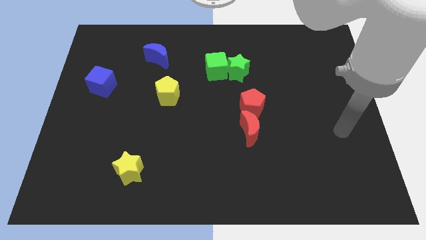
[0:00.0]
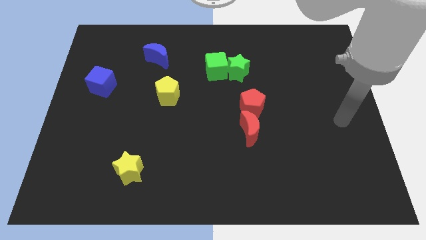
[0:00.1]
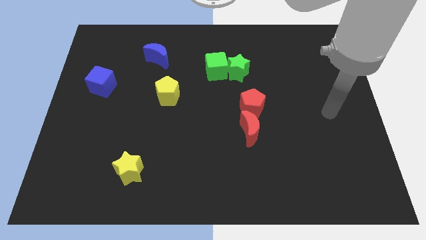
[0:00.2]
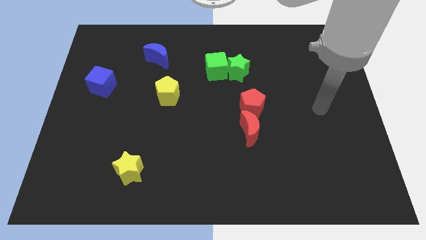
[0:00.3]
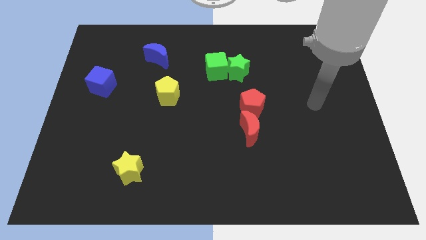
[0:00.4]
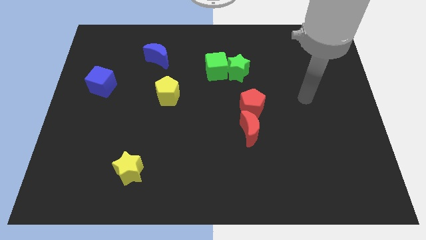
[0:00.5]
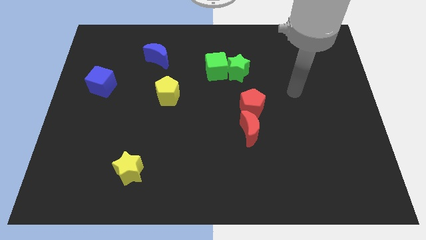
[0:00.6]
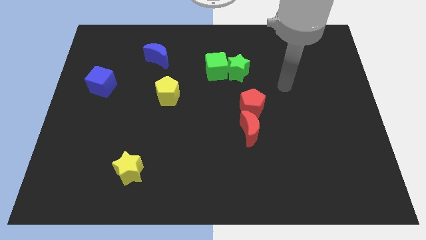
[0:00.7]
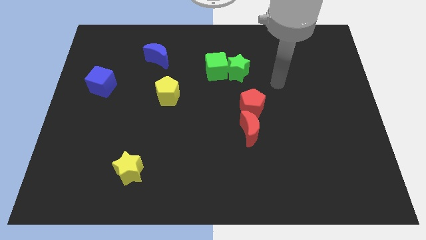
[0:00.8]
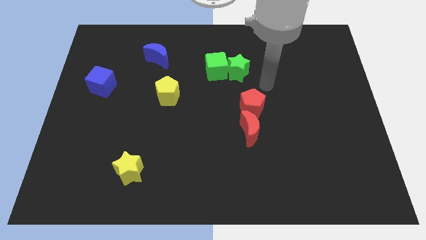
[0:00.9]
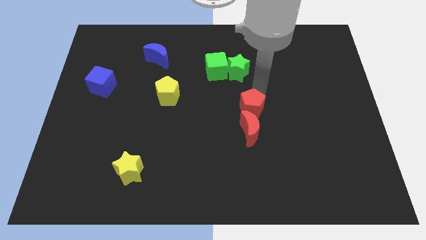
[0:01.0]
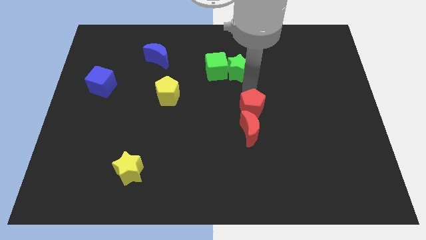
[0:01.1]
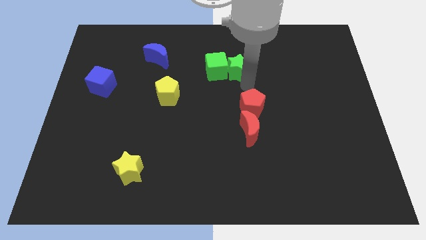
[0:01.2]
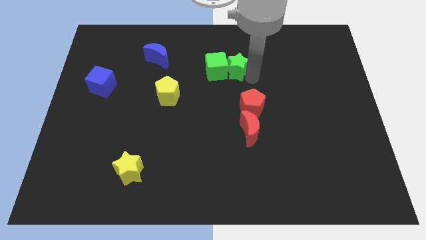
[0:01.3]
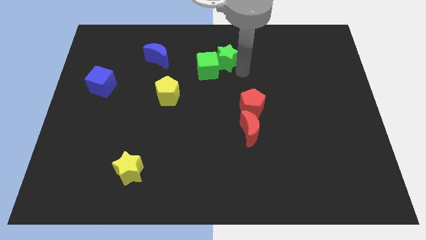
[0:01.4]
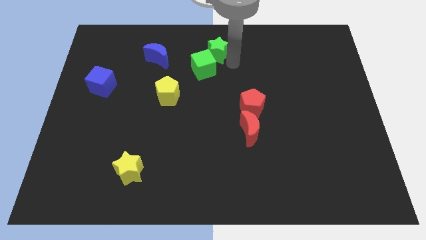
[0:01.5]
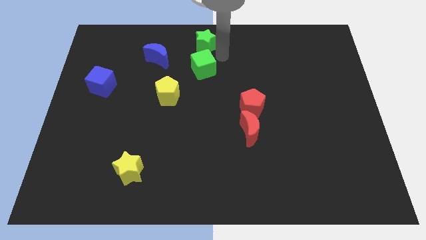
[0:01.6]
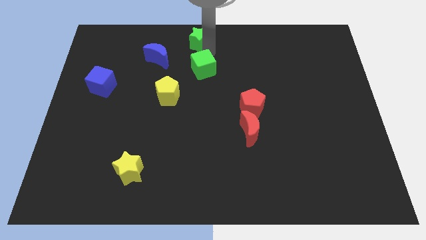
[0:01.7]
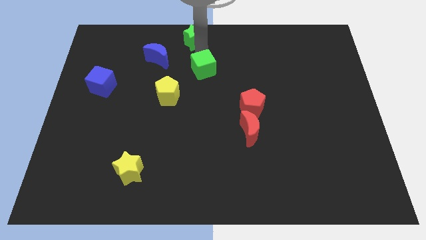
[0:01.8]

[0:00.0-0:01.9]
separate the green cube from the green star

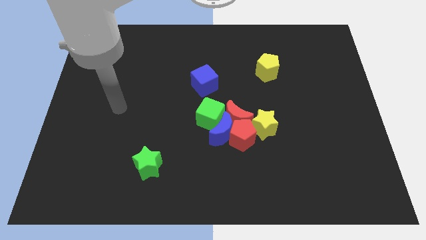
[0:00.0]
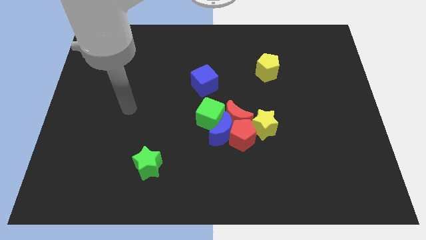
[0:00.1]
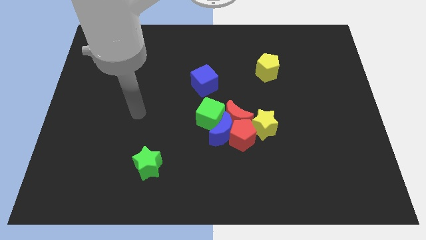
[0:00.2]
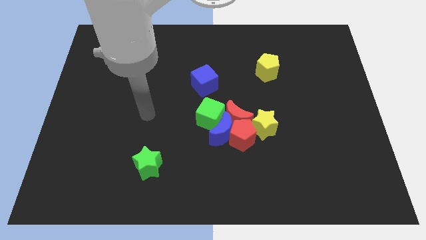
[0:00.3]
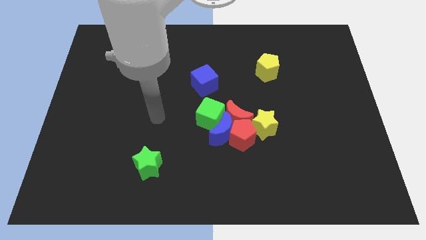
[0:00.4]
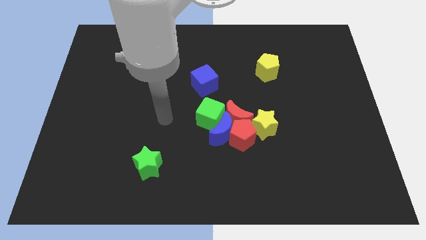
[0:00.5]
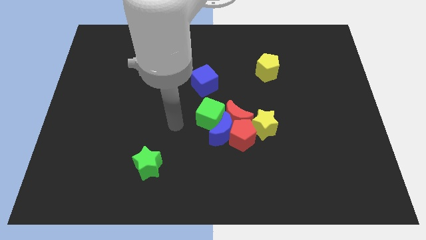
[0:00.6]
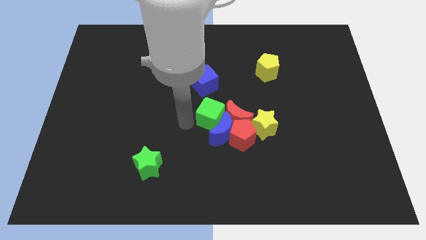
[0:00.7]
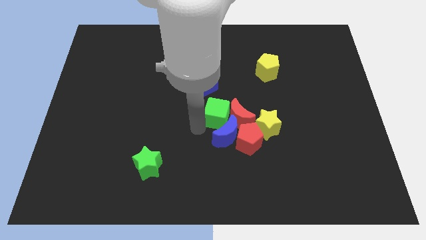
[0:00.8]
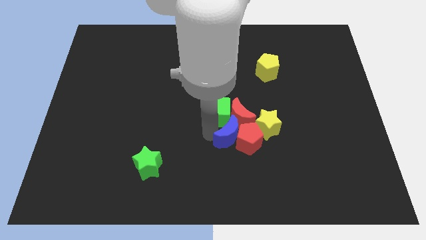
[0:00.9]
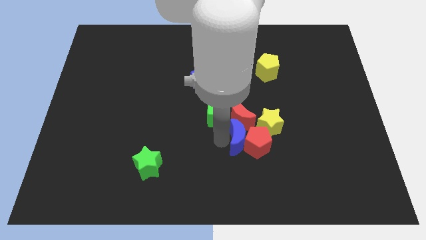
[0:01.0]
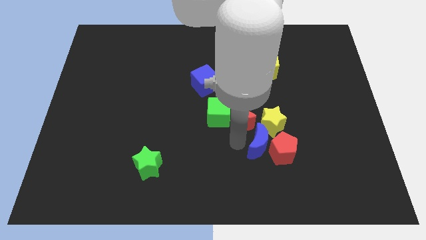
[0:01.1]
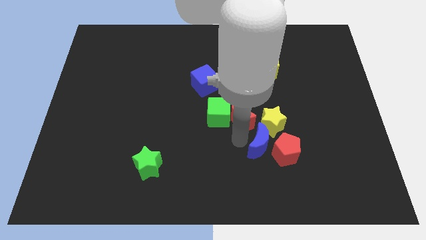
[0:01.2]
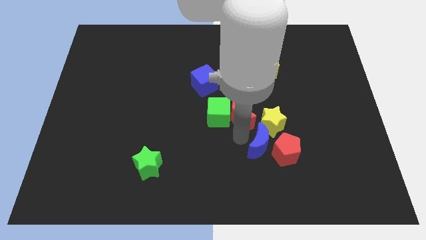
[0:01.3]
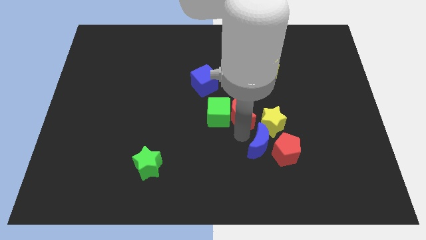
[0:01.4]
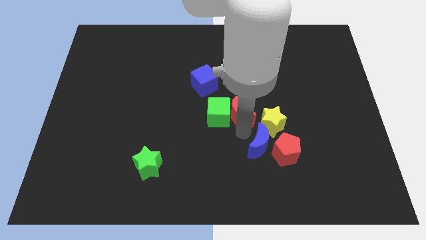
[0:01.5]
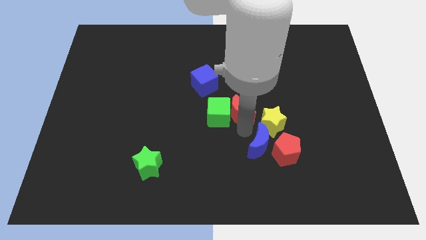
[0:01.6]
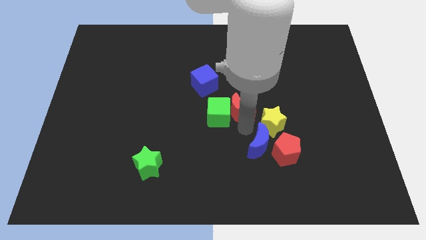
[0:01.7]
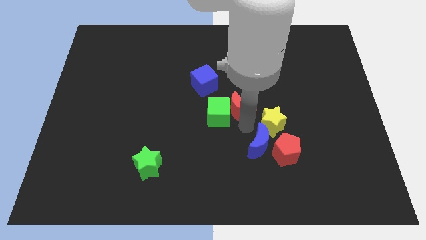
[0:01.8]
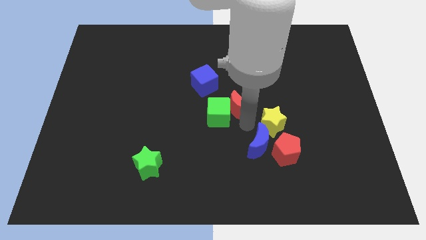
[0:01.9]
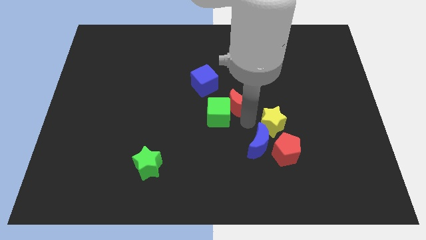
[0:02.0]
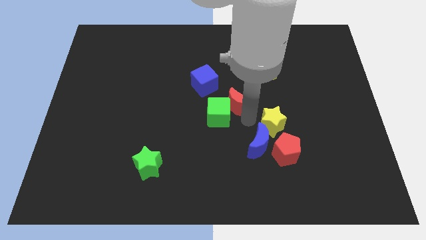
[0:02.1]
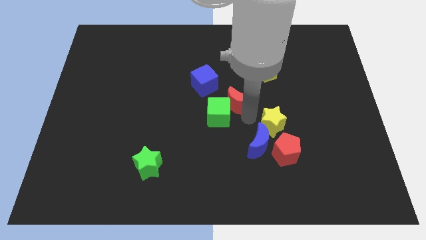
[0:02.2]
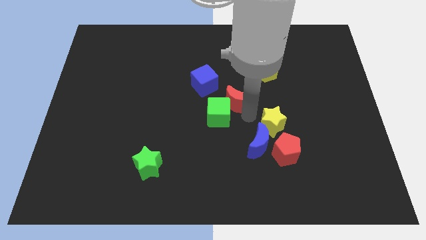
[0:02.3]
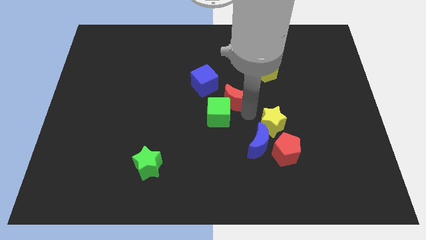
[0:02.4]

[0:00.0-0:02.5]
move the red moon away from the clump

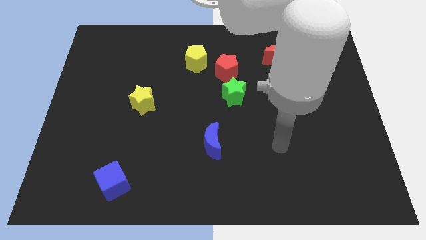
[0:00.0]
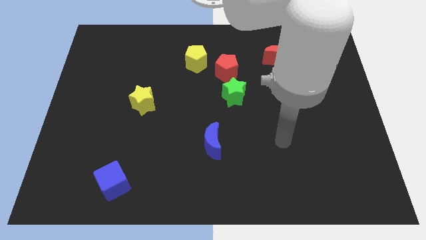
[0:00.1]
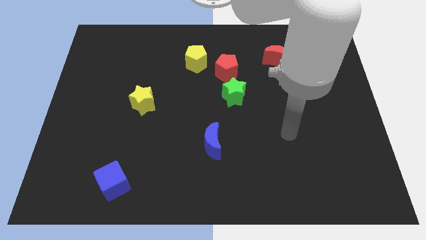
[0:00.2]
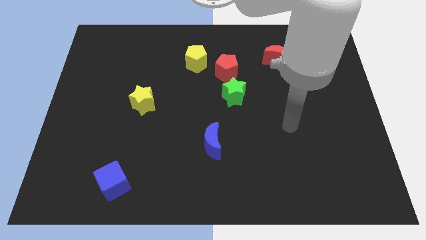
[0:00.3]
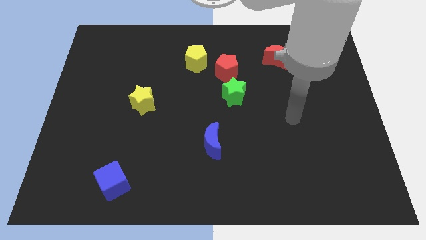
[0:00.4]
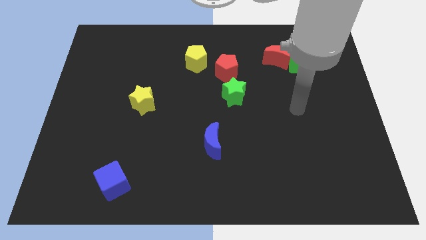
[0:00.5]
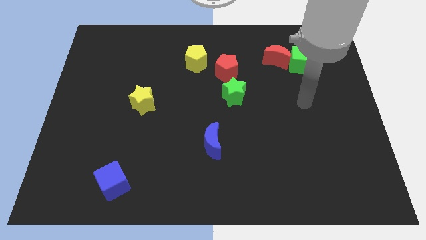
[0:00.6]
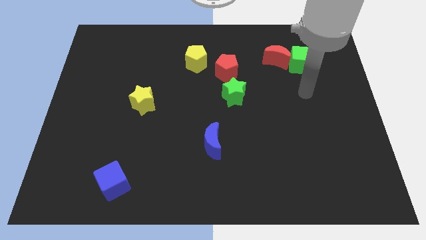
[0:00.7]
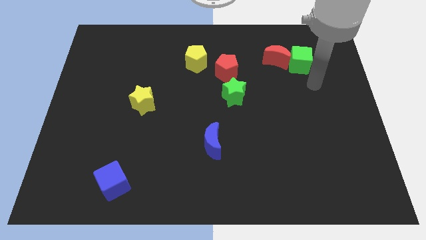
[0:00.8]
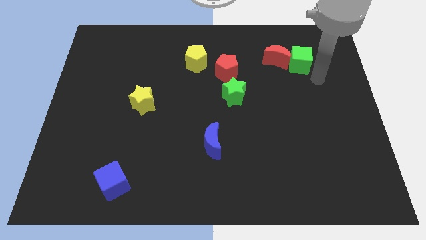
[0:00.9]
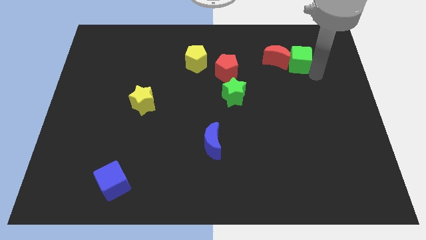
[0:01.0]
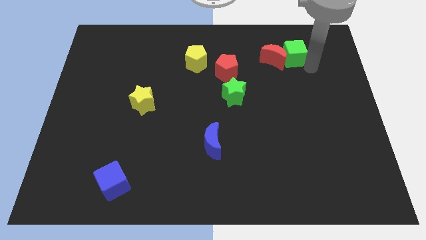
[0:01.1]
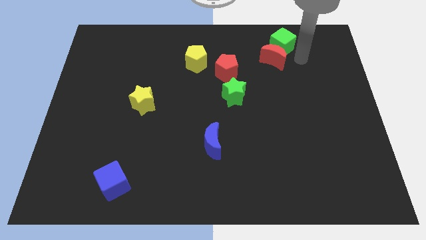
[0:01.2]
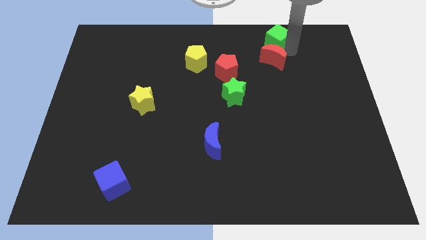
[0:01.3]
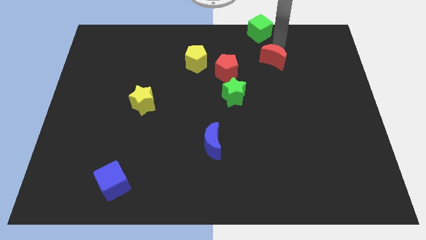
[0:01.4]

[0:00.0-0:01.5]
move the red moon away from the green cube

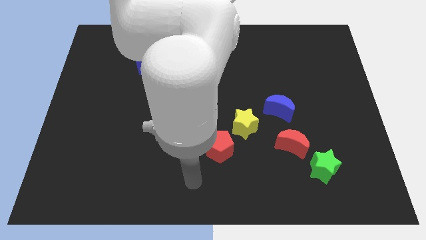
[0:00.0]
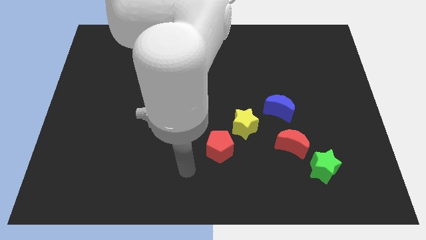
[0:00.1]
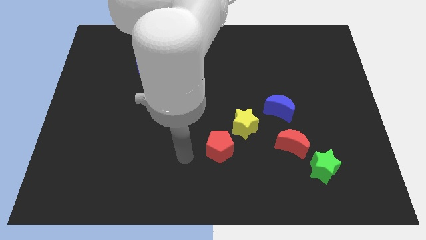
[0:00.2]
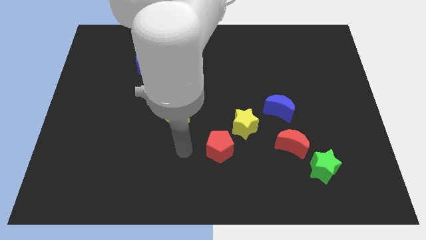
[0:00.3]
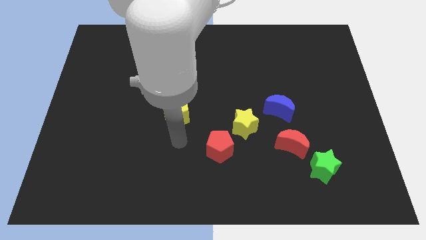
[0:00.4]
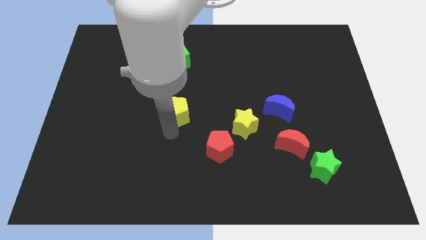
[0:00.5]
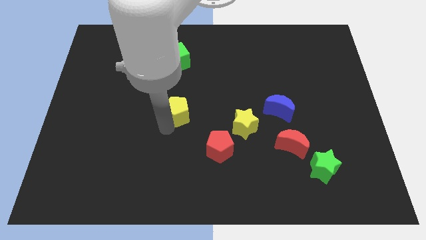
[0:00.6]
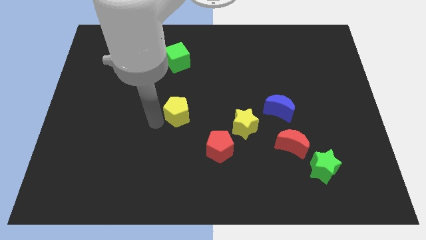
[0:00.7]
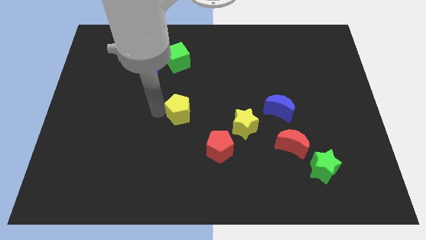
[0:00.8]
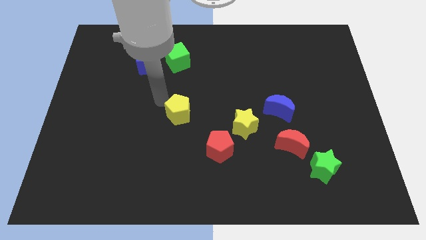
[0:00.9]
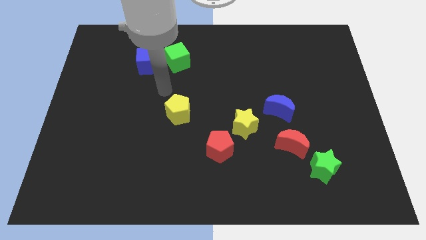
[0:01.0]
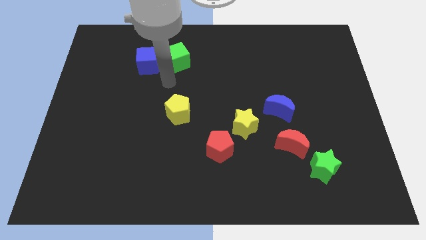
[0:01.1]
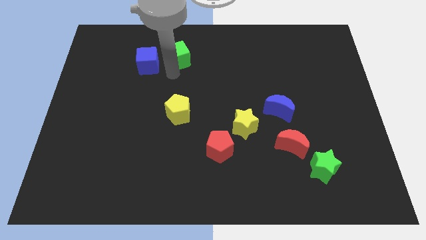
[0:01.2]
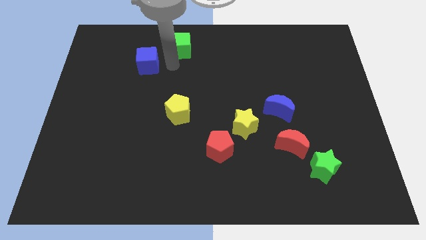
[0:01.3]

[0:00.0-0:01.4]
pull the blue cube apart from the green cube

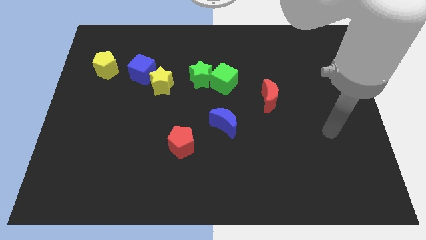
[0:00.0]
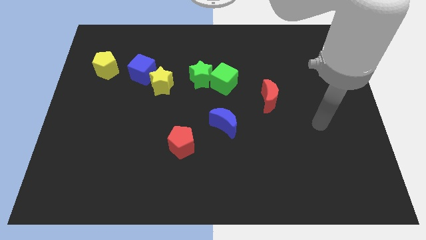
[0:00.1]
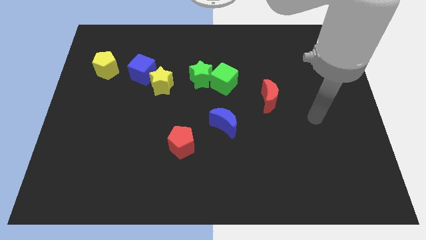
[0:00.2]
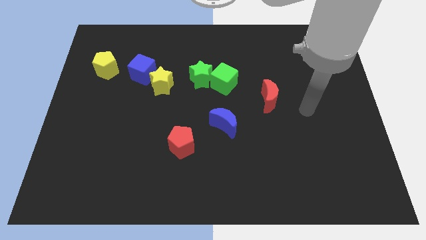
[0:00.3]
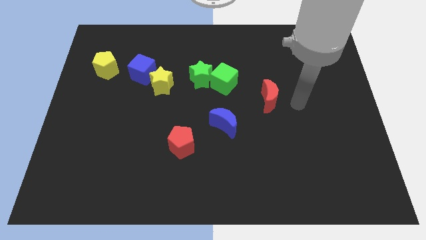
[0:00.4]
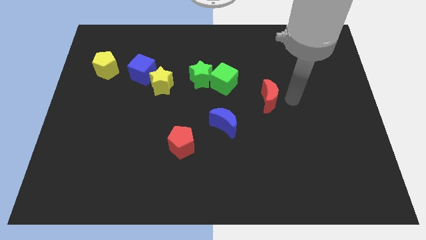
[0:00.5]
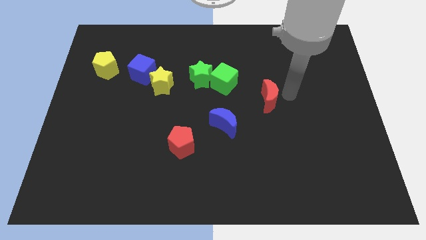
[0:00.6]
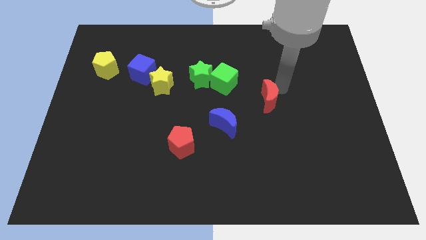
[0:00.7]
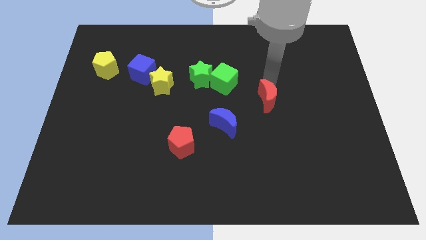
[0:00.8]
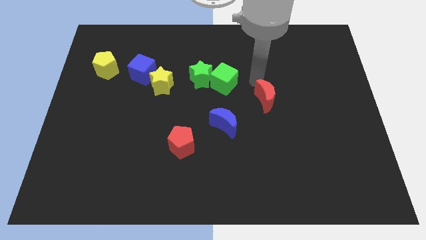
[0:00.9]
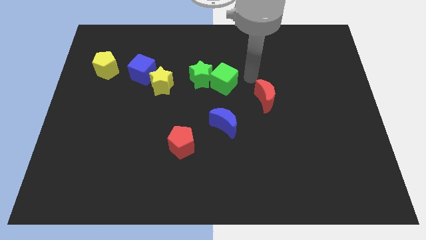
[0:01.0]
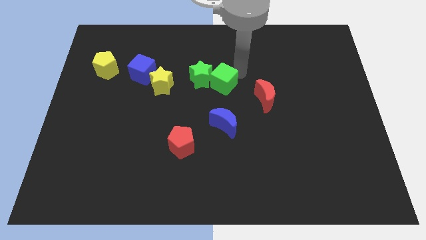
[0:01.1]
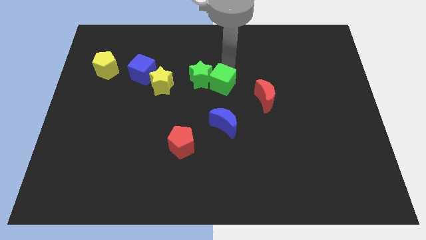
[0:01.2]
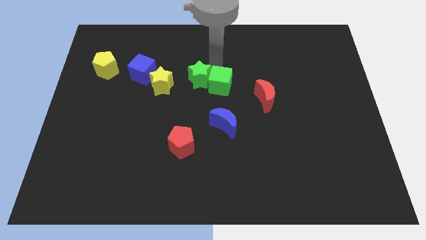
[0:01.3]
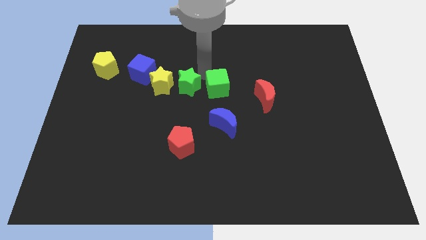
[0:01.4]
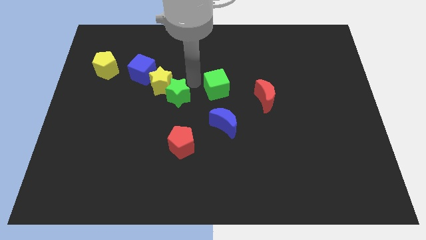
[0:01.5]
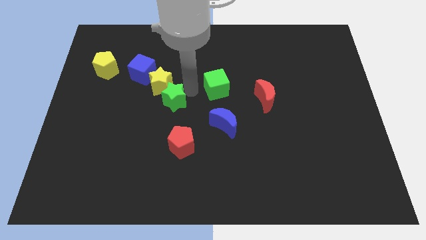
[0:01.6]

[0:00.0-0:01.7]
move the green cube away from the green star

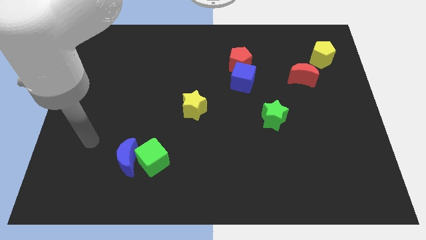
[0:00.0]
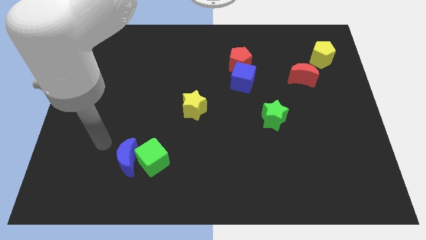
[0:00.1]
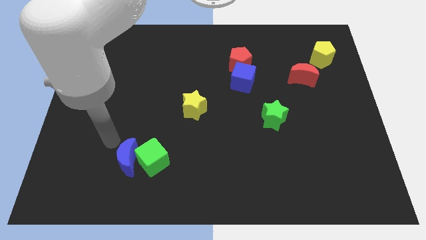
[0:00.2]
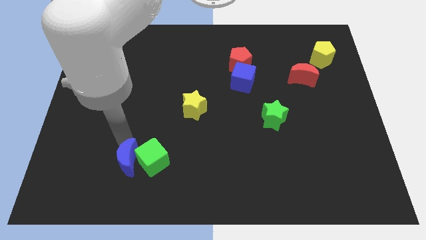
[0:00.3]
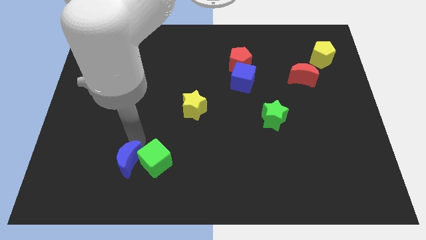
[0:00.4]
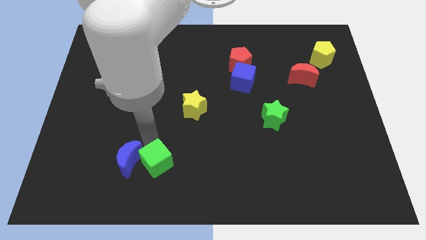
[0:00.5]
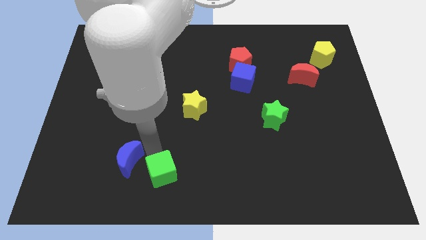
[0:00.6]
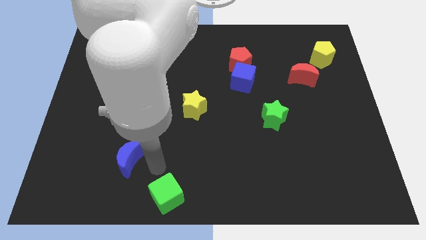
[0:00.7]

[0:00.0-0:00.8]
move the blue moon away from the green cube
